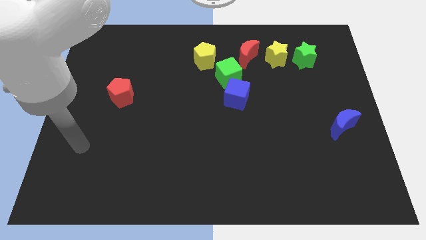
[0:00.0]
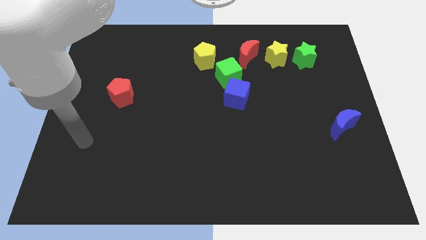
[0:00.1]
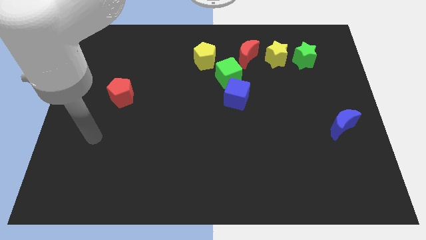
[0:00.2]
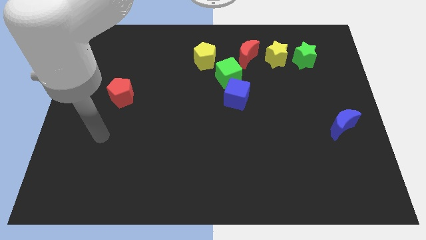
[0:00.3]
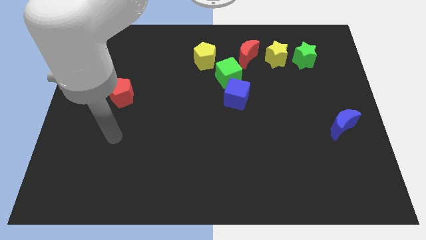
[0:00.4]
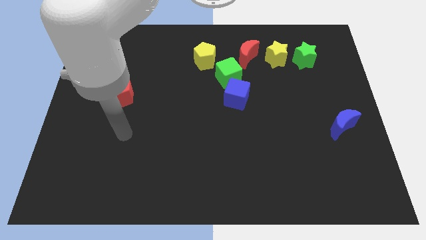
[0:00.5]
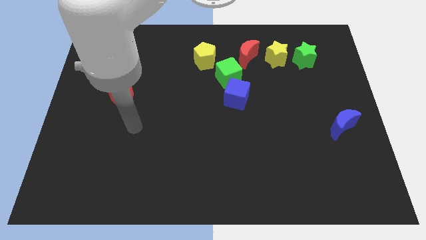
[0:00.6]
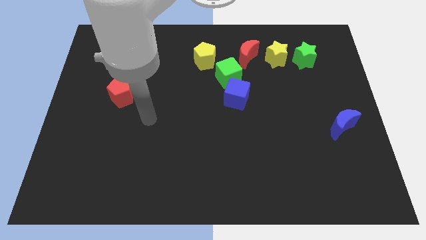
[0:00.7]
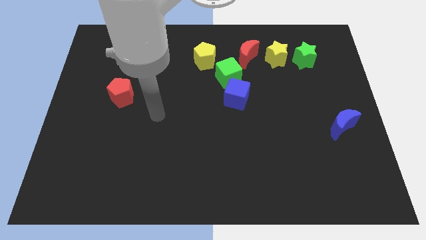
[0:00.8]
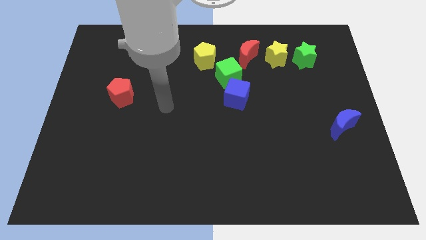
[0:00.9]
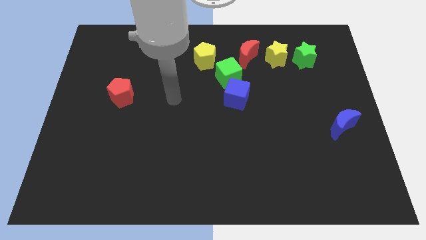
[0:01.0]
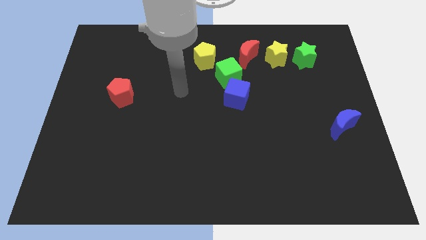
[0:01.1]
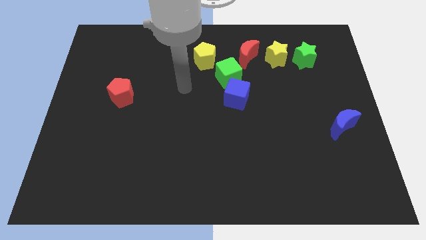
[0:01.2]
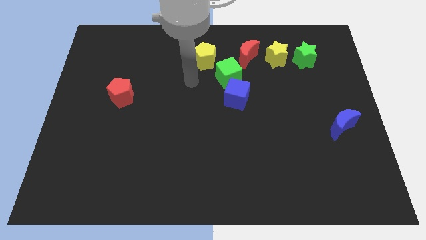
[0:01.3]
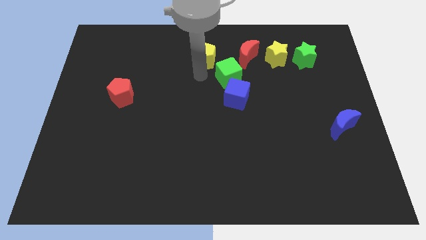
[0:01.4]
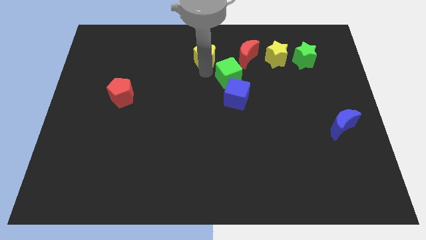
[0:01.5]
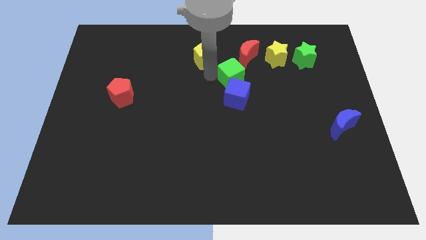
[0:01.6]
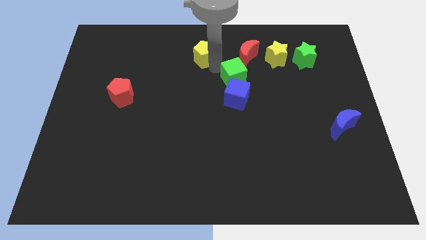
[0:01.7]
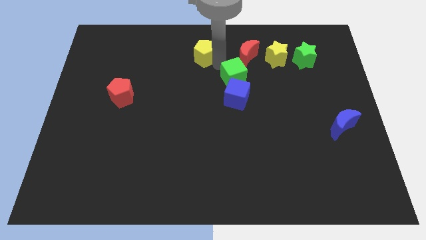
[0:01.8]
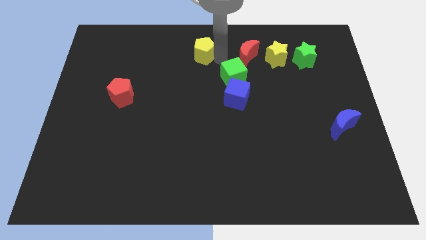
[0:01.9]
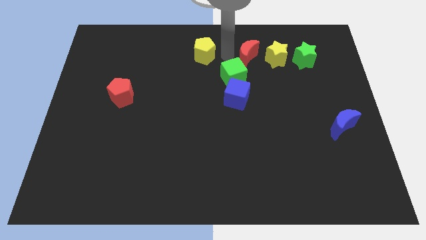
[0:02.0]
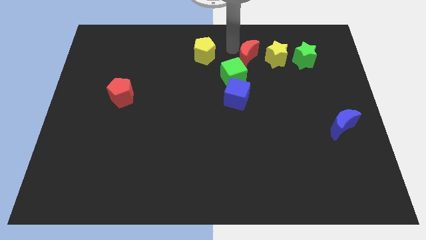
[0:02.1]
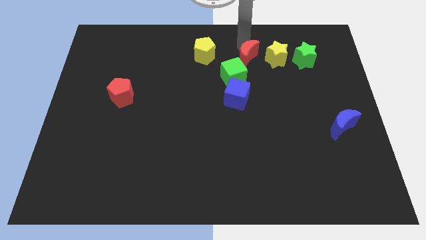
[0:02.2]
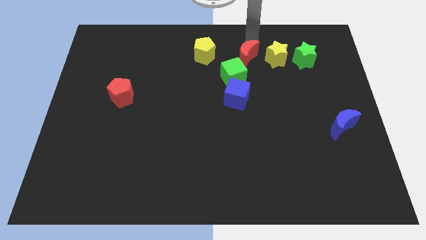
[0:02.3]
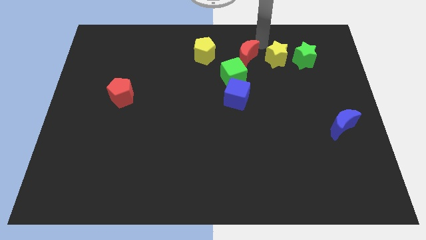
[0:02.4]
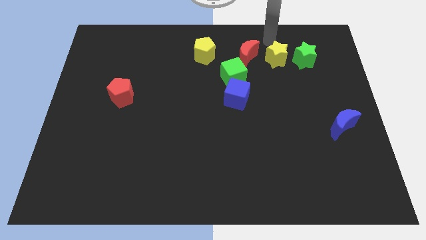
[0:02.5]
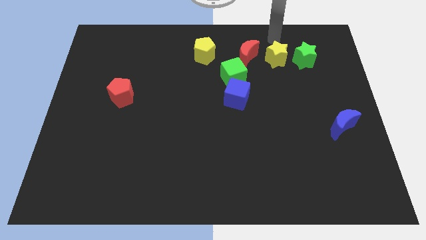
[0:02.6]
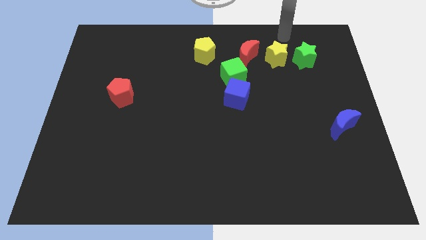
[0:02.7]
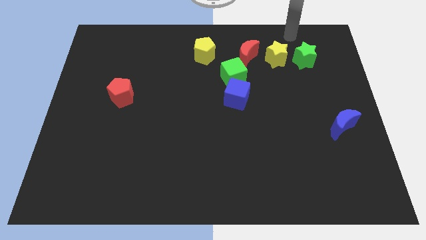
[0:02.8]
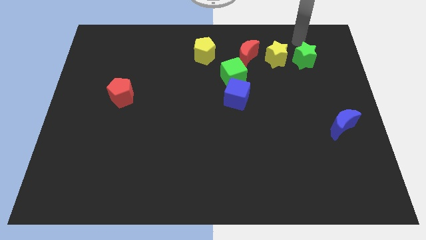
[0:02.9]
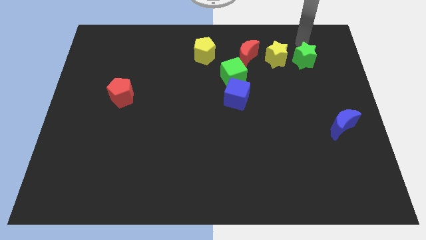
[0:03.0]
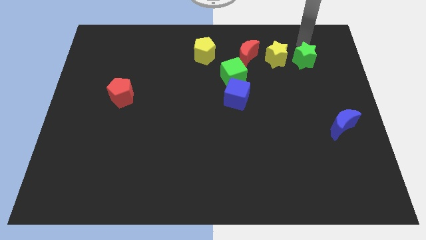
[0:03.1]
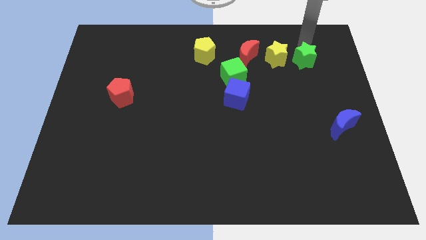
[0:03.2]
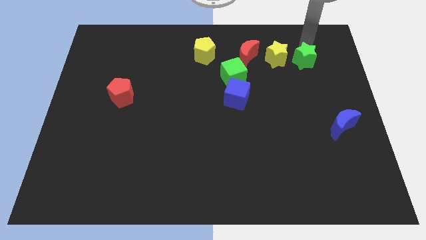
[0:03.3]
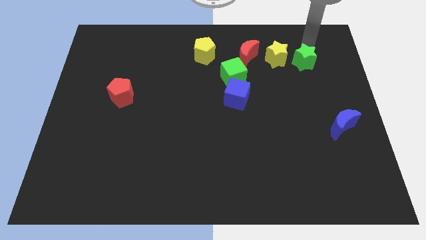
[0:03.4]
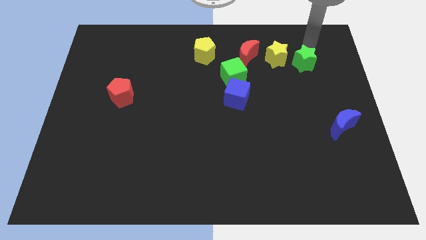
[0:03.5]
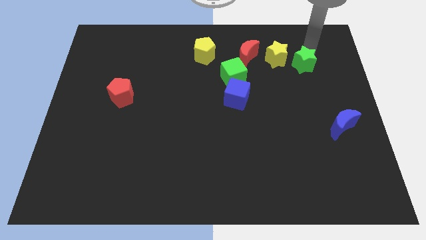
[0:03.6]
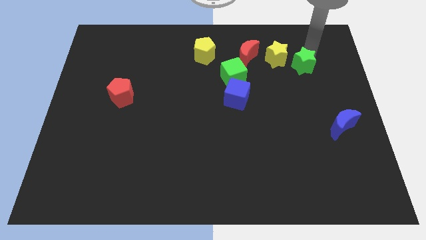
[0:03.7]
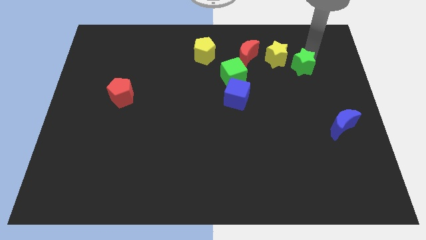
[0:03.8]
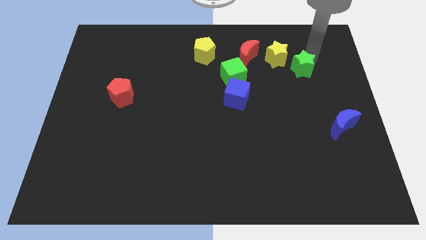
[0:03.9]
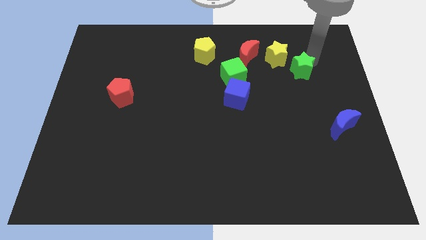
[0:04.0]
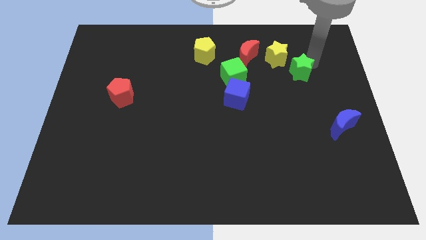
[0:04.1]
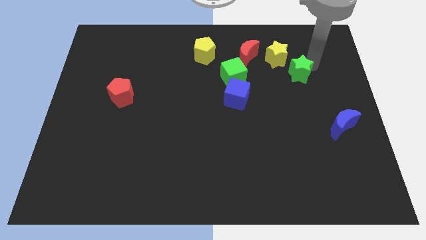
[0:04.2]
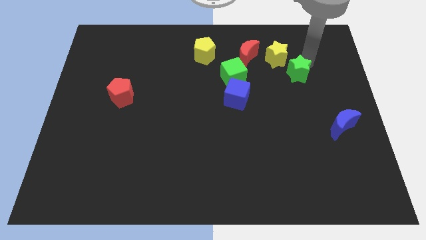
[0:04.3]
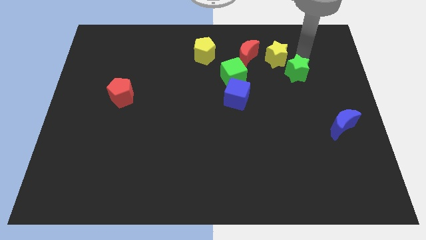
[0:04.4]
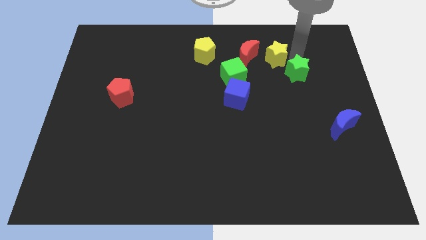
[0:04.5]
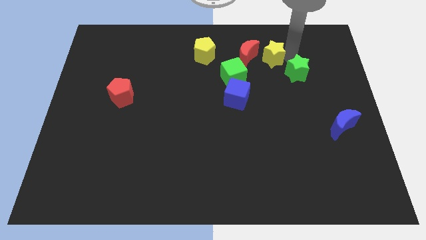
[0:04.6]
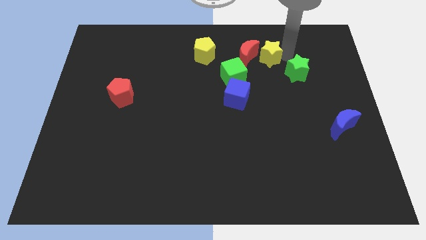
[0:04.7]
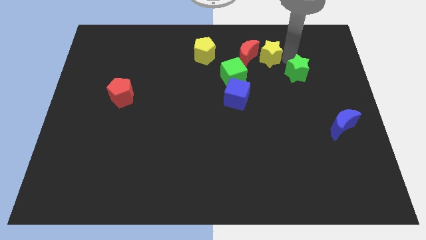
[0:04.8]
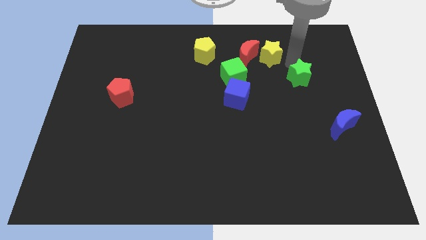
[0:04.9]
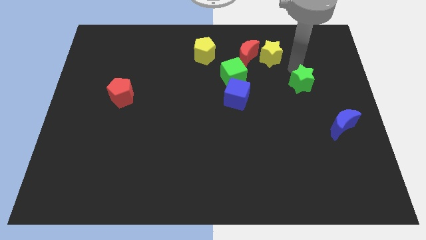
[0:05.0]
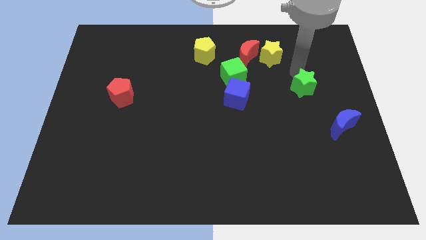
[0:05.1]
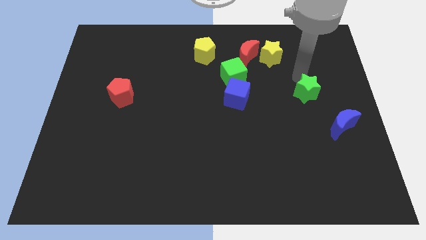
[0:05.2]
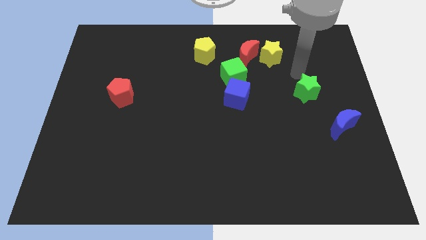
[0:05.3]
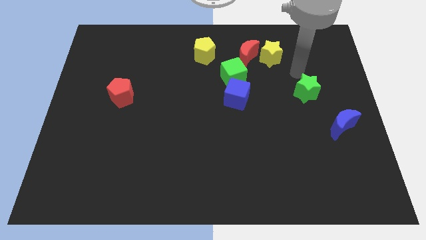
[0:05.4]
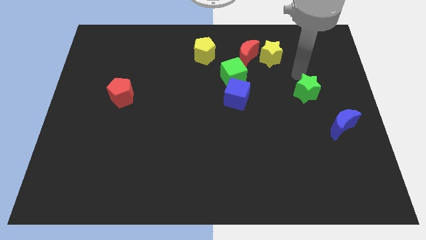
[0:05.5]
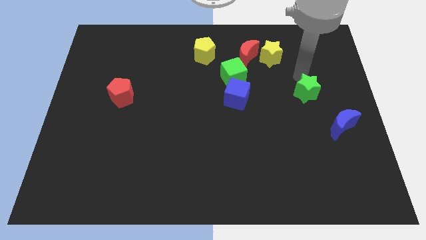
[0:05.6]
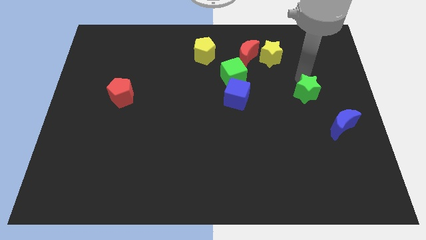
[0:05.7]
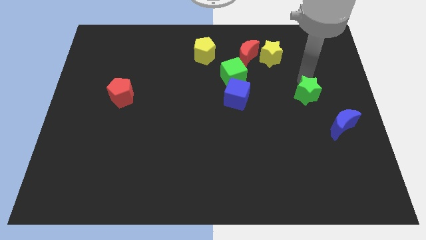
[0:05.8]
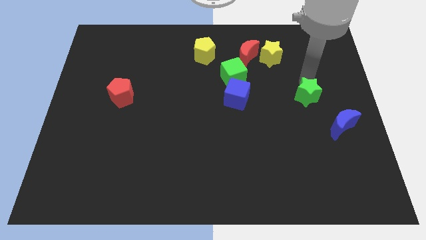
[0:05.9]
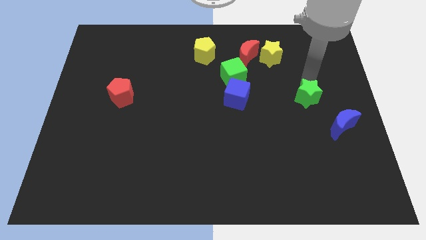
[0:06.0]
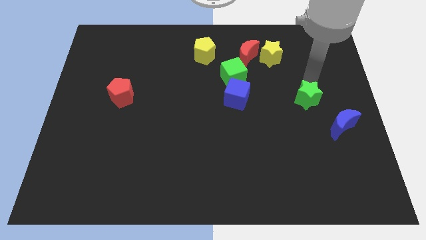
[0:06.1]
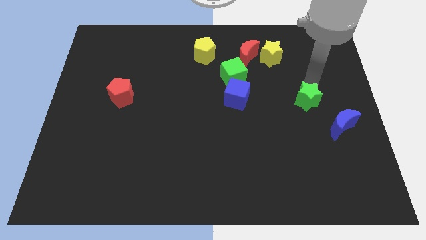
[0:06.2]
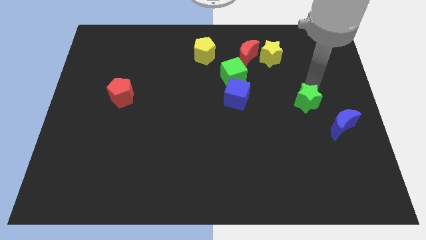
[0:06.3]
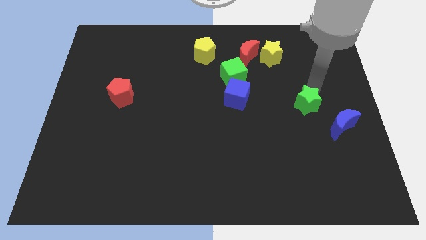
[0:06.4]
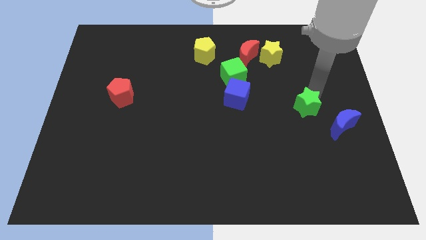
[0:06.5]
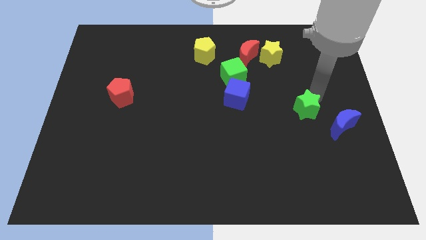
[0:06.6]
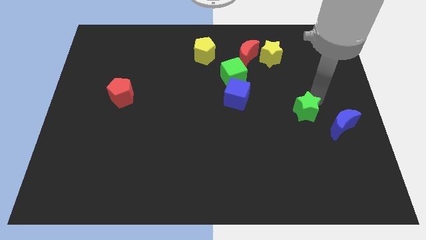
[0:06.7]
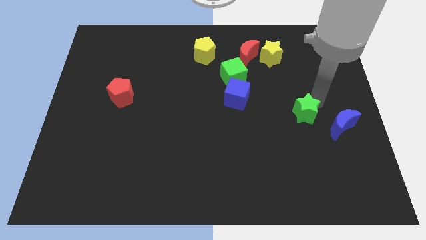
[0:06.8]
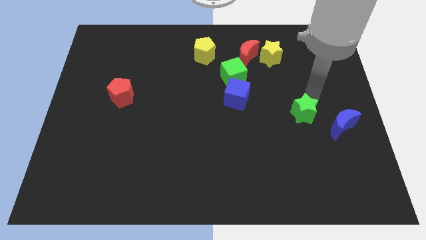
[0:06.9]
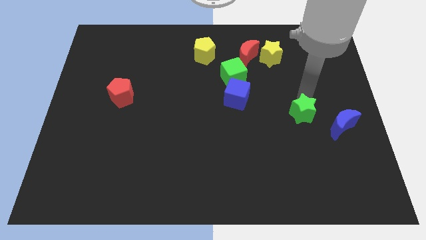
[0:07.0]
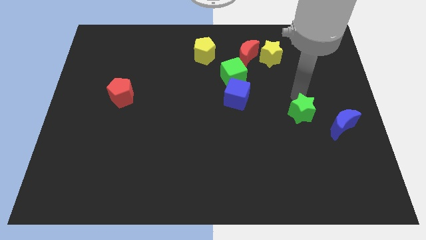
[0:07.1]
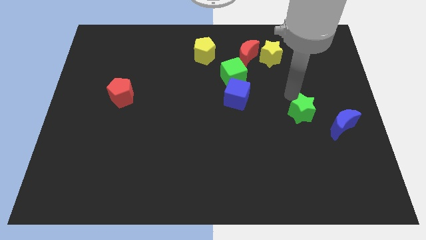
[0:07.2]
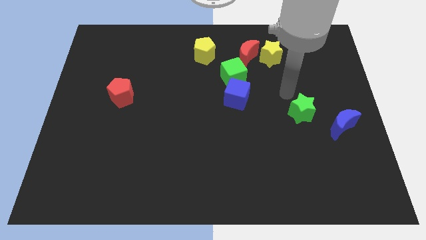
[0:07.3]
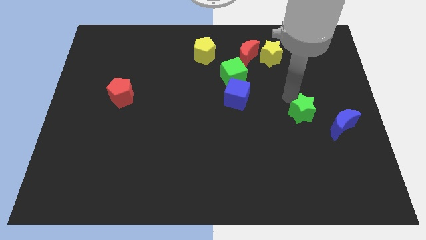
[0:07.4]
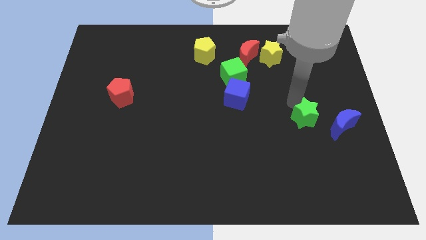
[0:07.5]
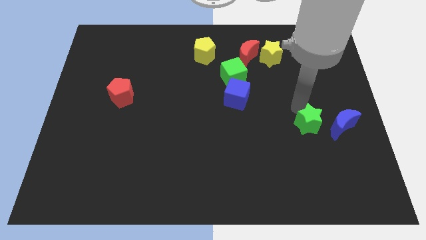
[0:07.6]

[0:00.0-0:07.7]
move the green star down
